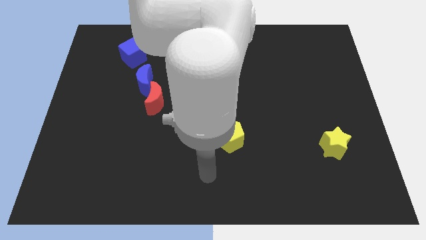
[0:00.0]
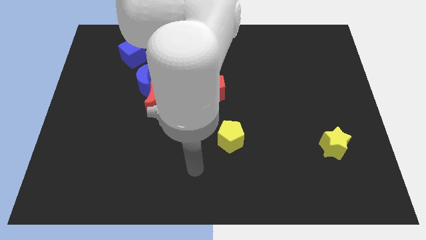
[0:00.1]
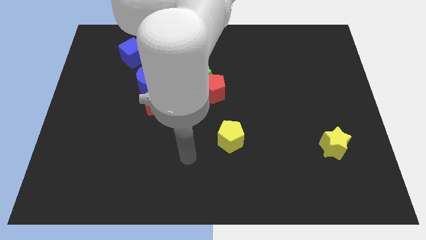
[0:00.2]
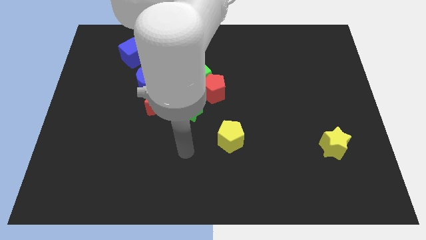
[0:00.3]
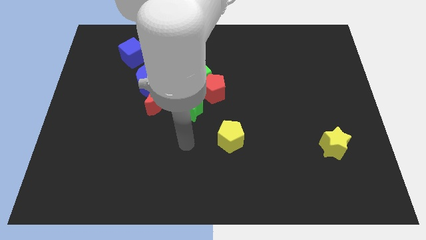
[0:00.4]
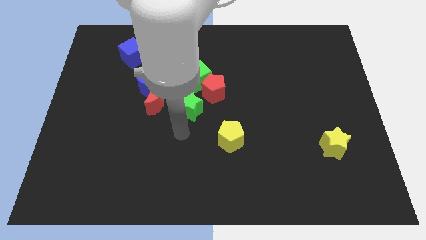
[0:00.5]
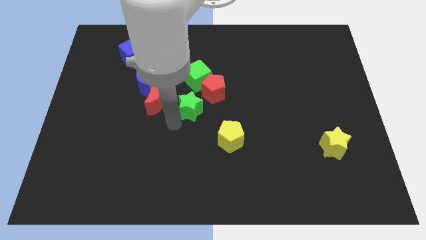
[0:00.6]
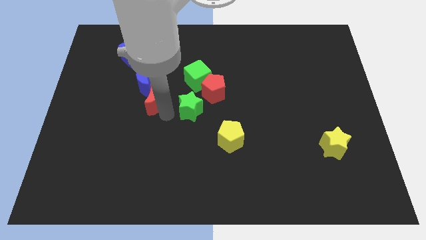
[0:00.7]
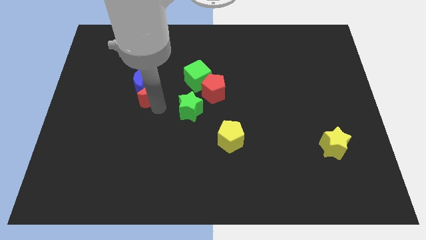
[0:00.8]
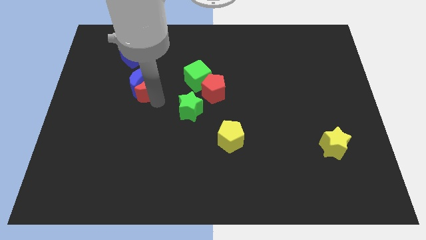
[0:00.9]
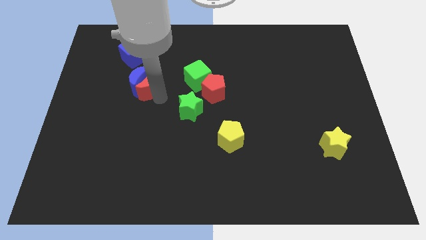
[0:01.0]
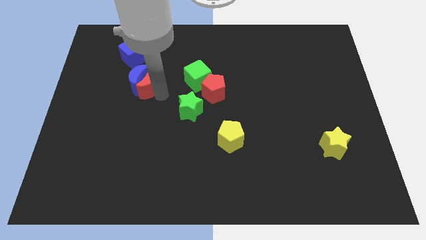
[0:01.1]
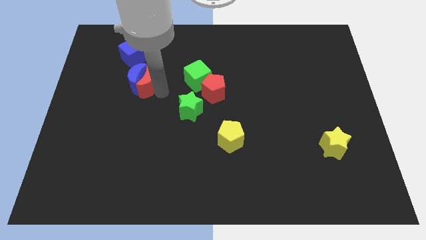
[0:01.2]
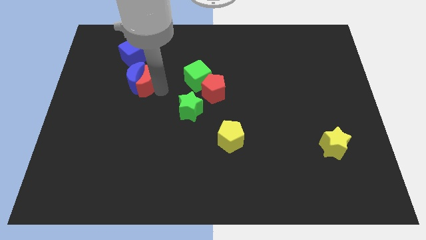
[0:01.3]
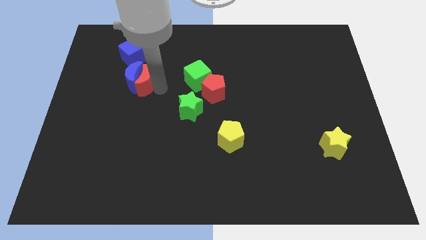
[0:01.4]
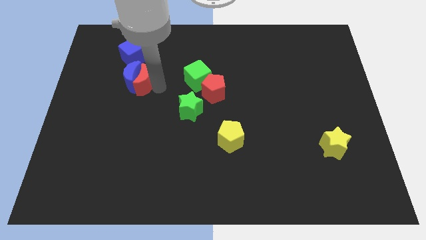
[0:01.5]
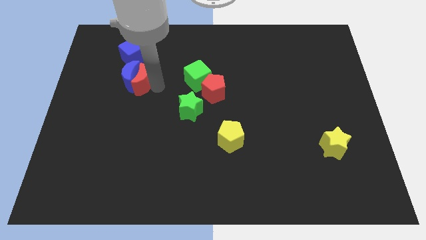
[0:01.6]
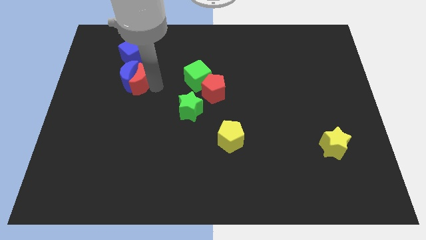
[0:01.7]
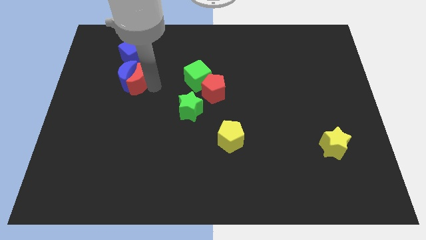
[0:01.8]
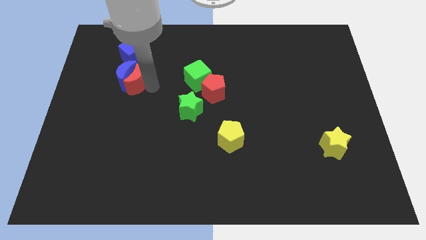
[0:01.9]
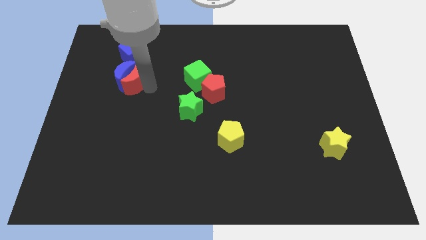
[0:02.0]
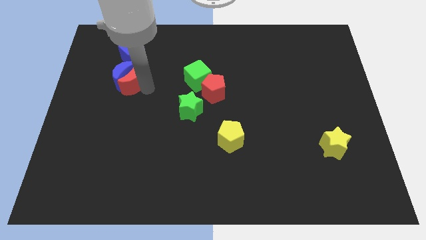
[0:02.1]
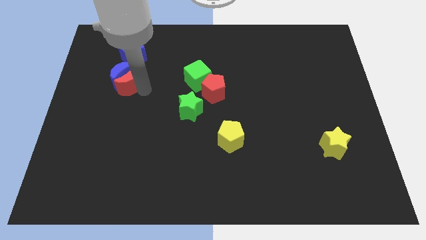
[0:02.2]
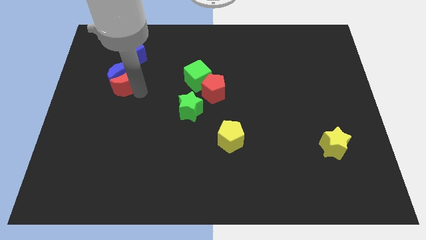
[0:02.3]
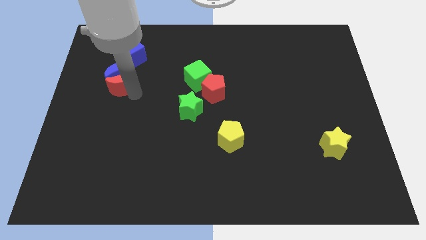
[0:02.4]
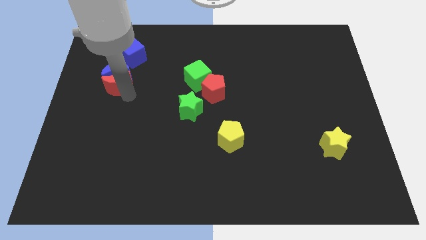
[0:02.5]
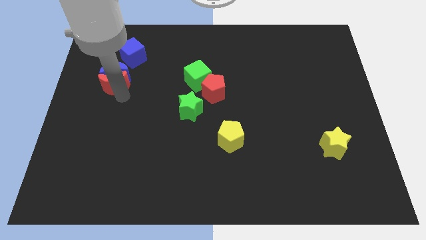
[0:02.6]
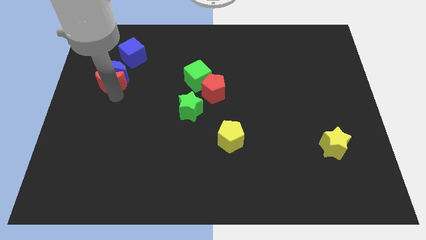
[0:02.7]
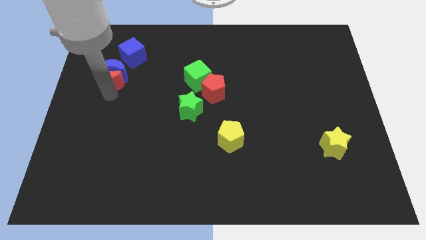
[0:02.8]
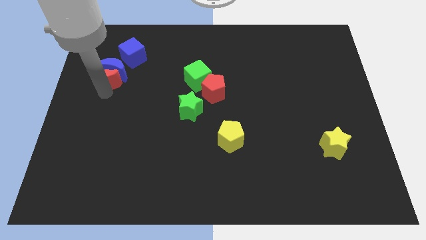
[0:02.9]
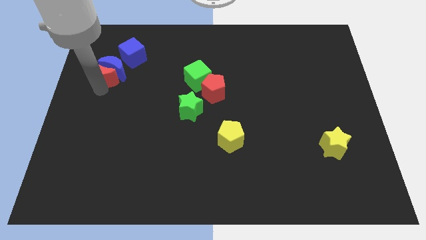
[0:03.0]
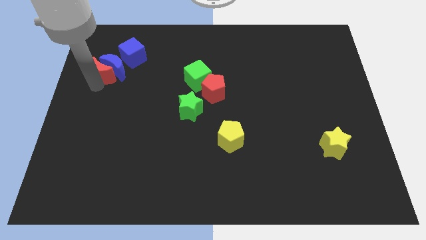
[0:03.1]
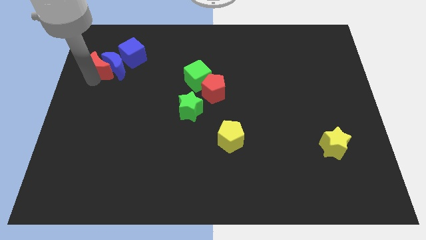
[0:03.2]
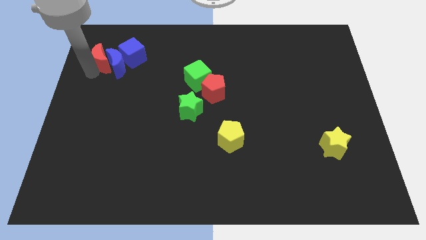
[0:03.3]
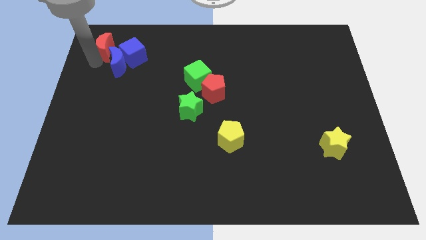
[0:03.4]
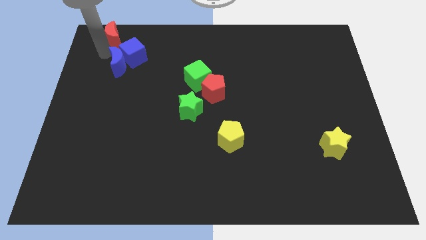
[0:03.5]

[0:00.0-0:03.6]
move the blue moon away from the red moon

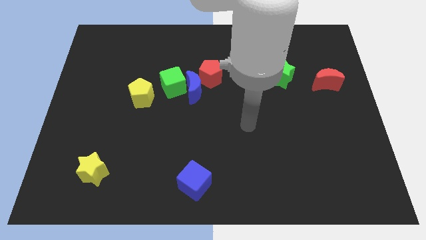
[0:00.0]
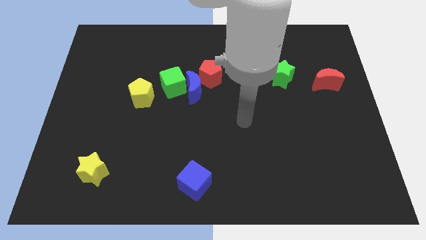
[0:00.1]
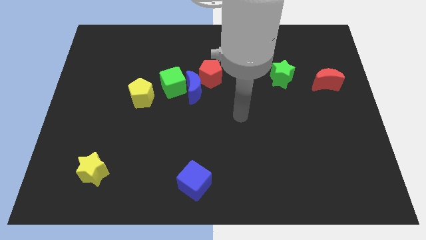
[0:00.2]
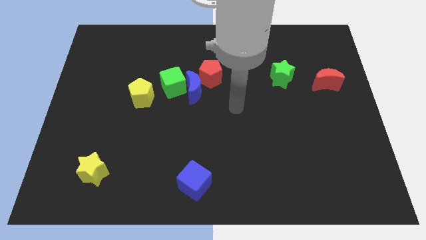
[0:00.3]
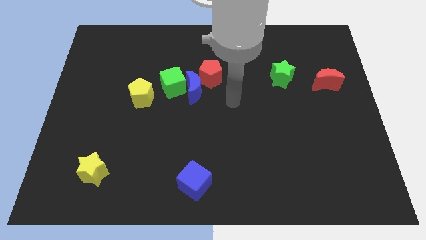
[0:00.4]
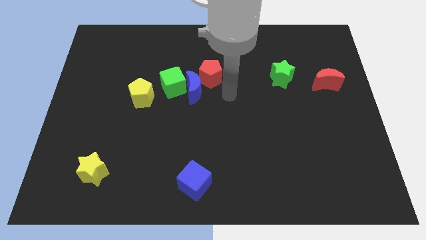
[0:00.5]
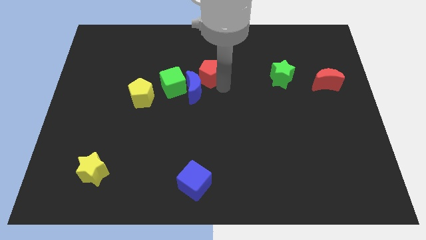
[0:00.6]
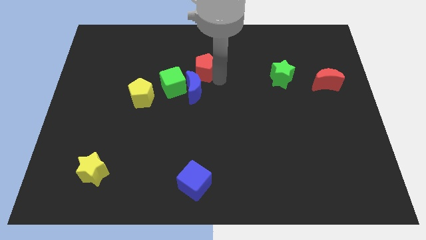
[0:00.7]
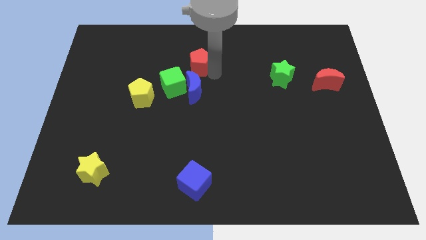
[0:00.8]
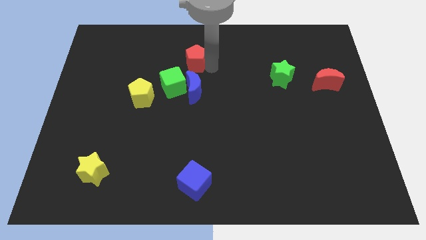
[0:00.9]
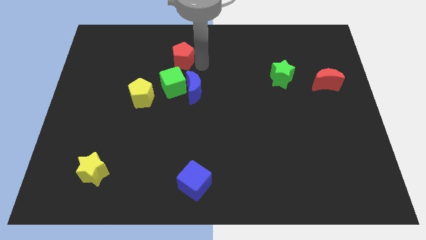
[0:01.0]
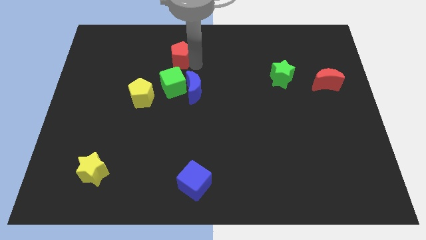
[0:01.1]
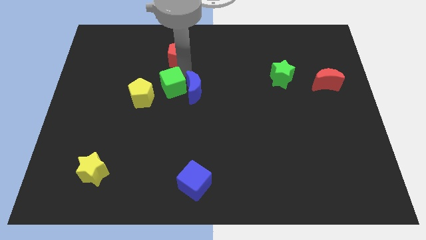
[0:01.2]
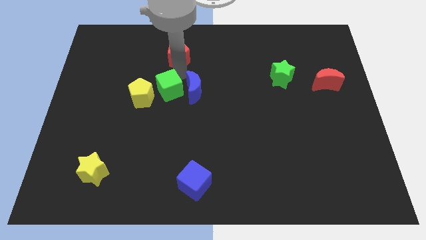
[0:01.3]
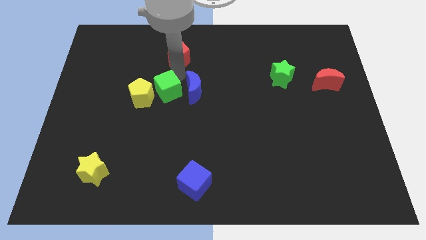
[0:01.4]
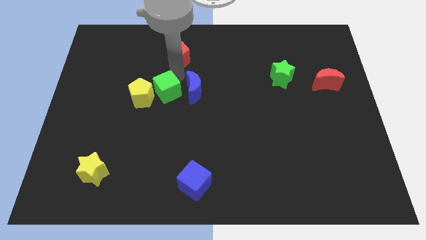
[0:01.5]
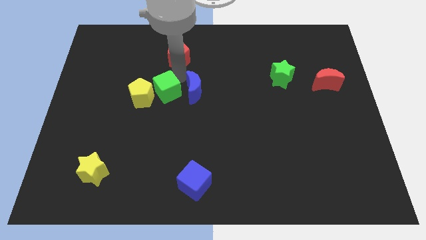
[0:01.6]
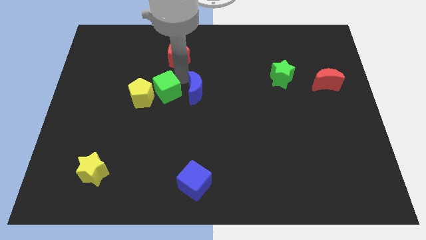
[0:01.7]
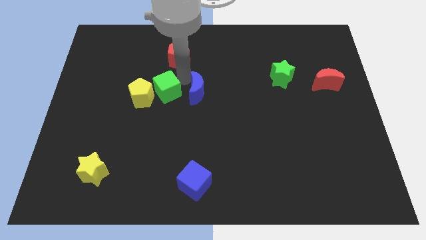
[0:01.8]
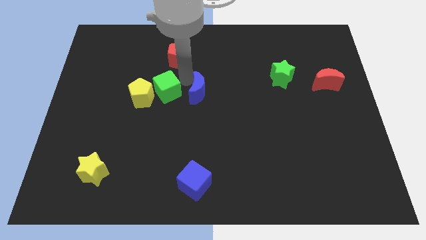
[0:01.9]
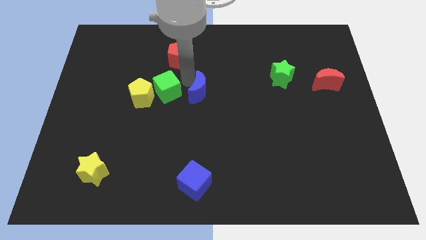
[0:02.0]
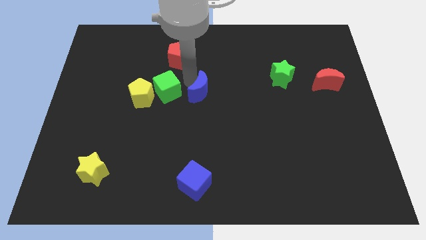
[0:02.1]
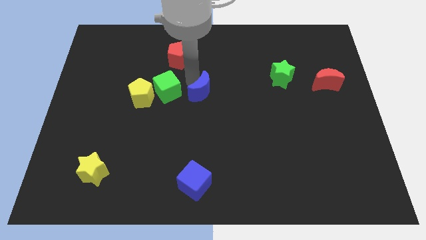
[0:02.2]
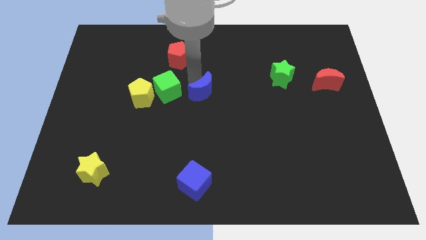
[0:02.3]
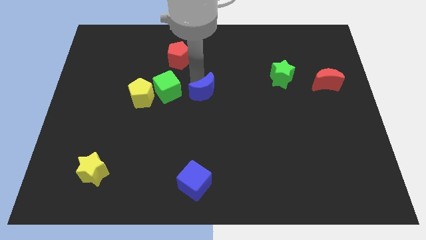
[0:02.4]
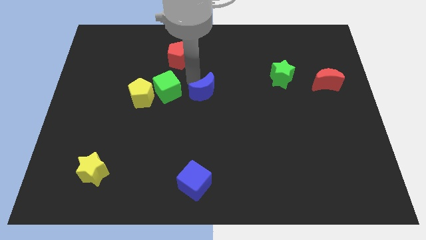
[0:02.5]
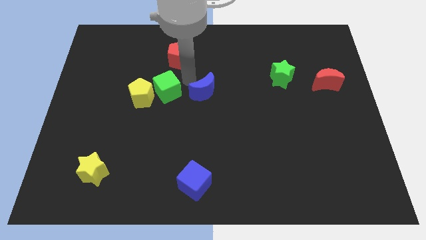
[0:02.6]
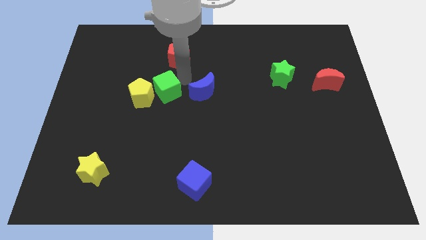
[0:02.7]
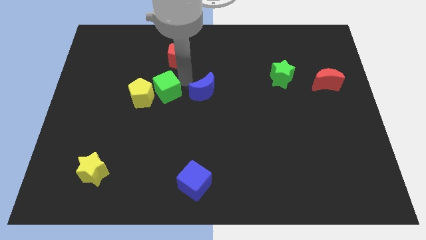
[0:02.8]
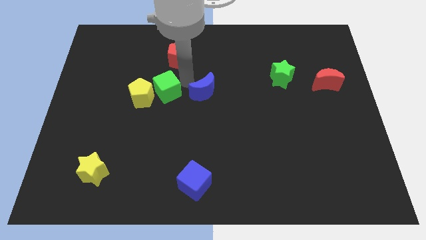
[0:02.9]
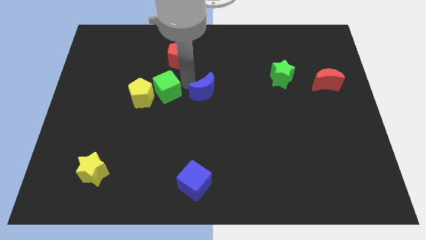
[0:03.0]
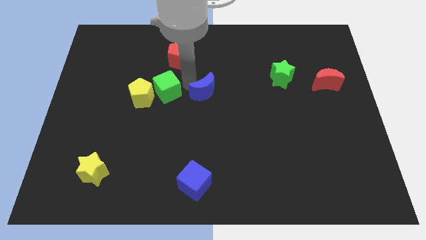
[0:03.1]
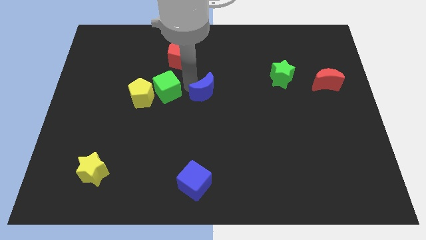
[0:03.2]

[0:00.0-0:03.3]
move the blue moon away from the green cube and red pentagon

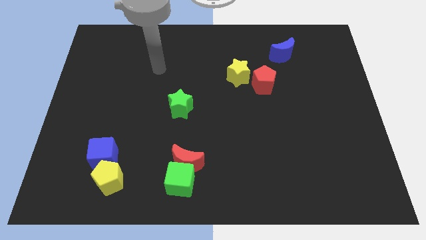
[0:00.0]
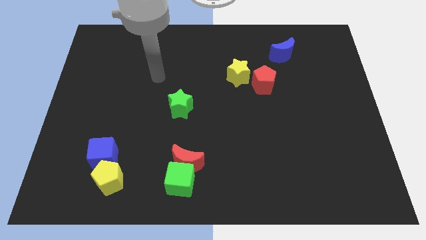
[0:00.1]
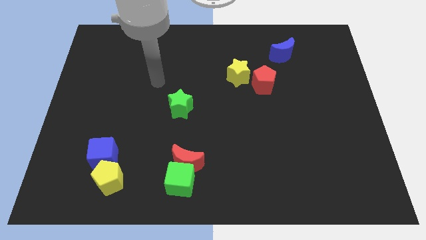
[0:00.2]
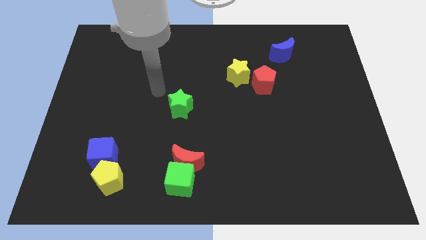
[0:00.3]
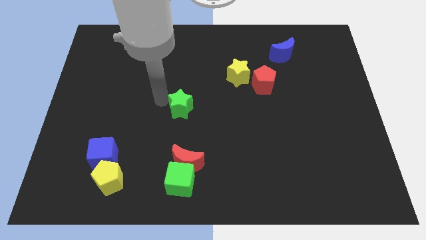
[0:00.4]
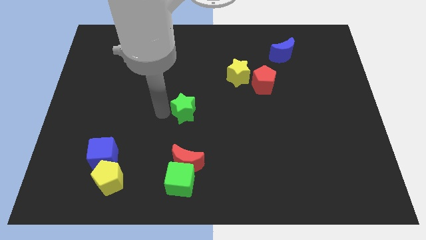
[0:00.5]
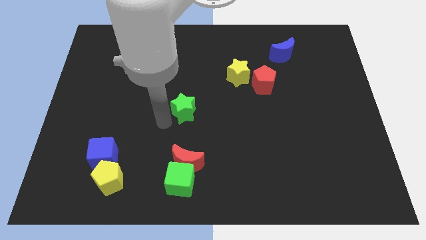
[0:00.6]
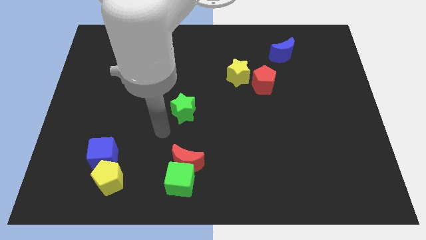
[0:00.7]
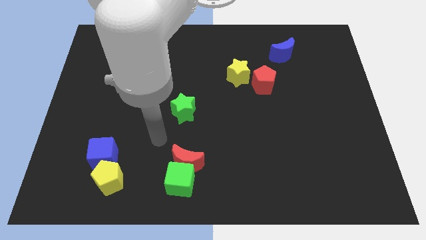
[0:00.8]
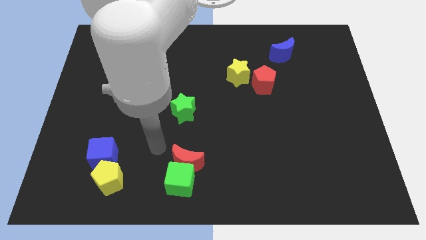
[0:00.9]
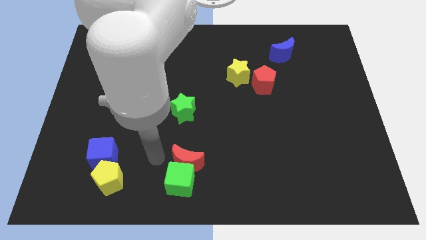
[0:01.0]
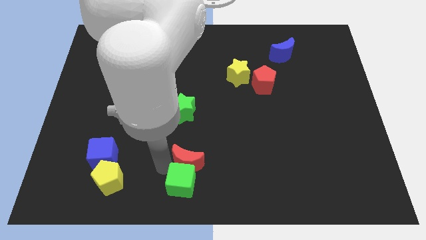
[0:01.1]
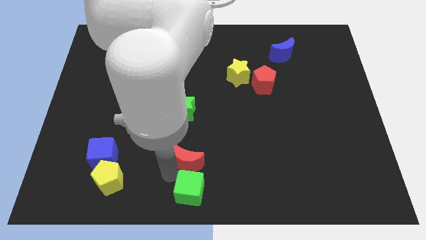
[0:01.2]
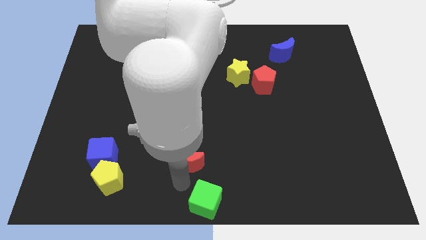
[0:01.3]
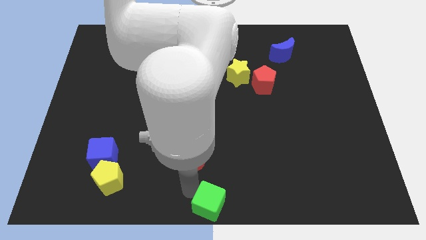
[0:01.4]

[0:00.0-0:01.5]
separate the red moon from the green cube

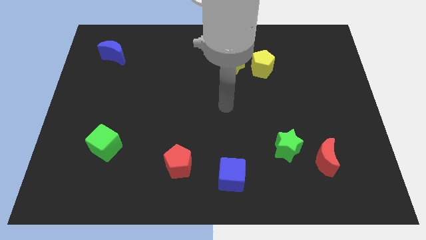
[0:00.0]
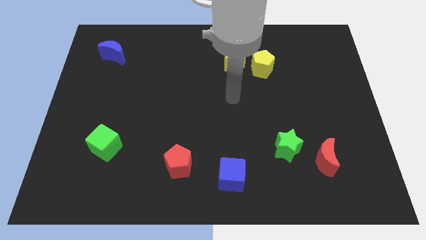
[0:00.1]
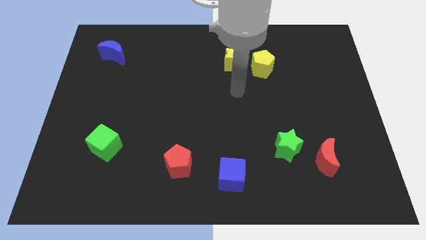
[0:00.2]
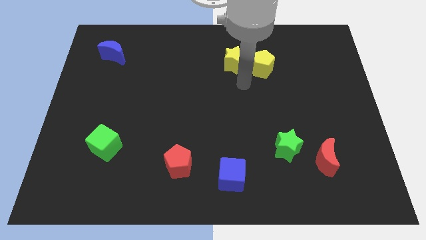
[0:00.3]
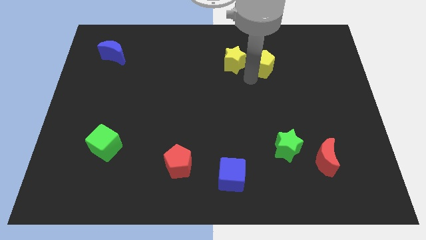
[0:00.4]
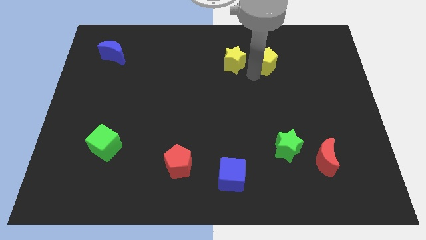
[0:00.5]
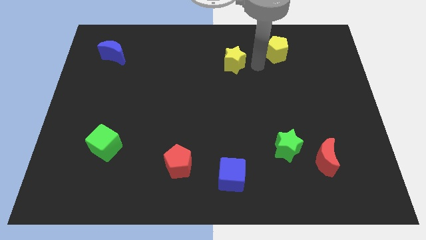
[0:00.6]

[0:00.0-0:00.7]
separate the yellow star from the yellow pentagon

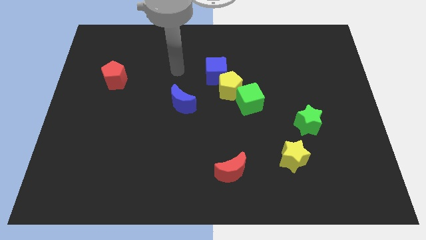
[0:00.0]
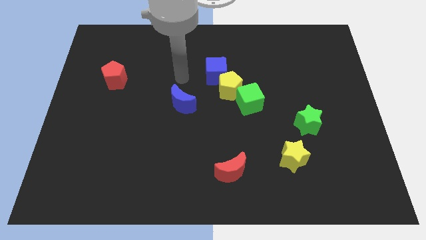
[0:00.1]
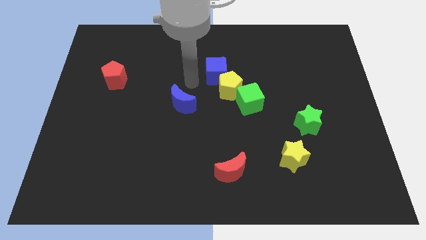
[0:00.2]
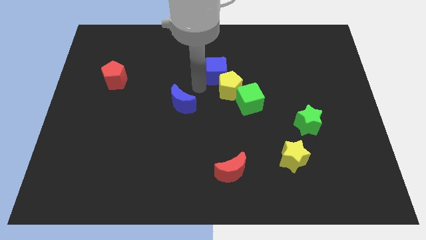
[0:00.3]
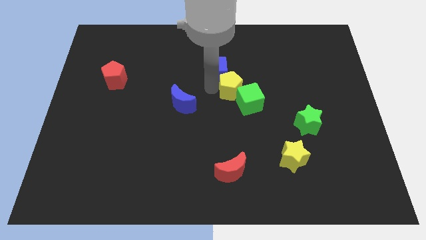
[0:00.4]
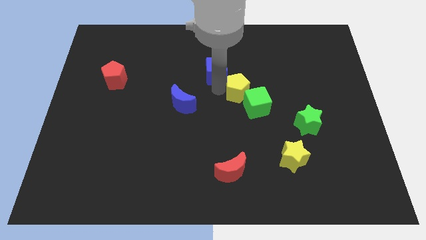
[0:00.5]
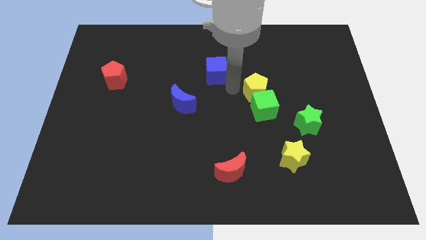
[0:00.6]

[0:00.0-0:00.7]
separate the blue cube from the yellow pentagon
